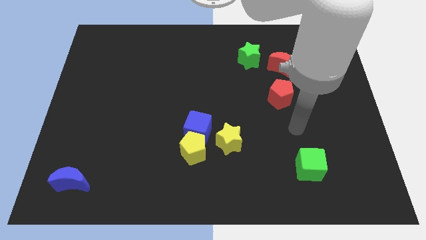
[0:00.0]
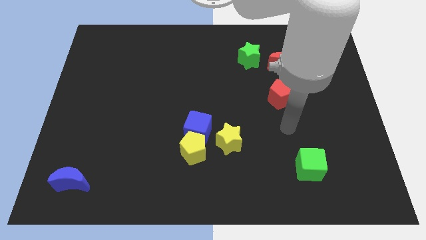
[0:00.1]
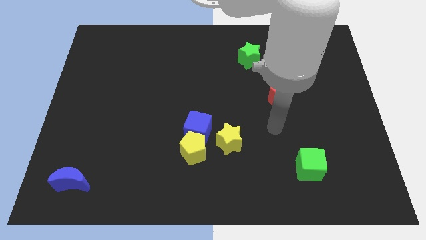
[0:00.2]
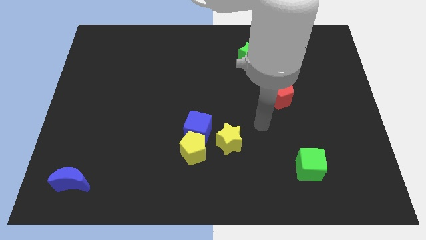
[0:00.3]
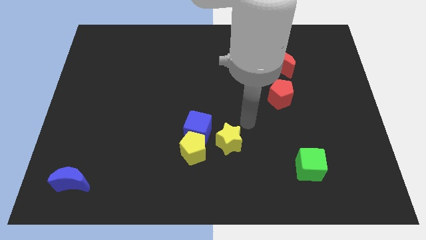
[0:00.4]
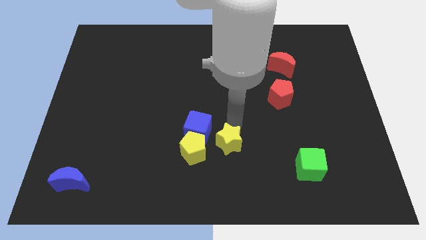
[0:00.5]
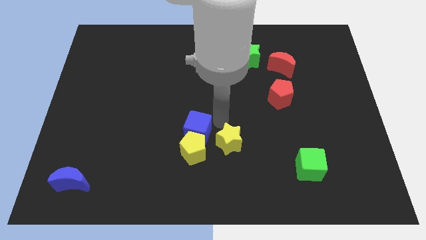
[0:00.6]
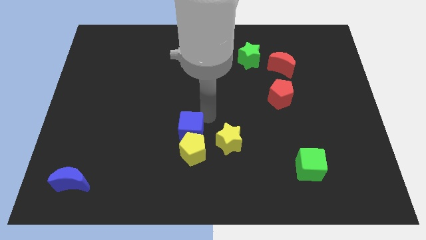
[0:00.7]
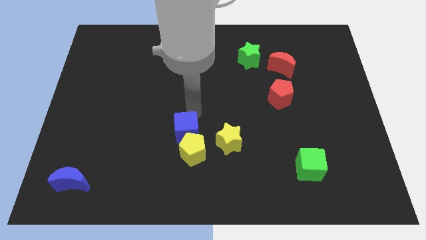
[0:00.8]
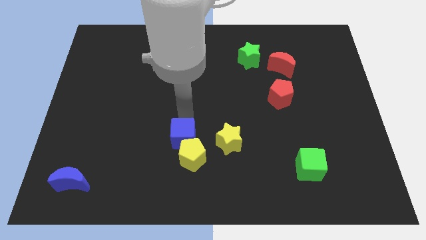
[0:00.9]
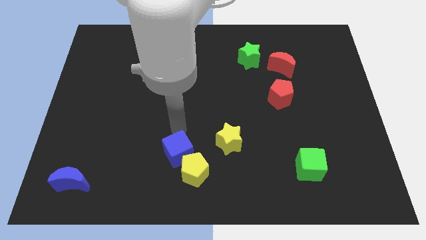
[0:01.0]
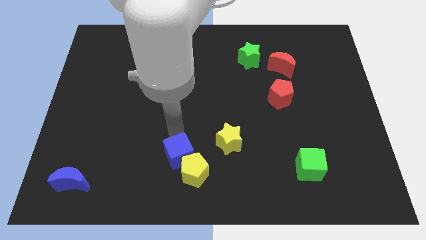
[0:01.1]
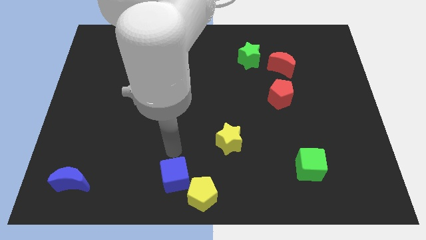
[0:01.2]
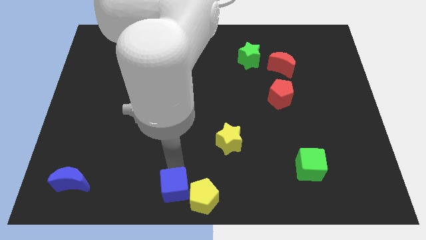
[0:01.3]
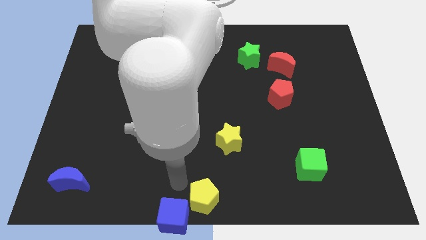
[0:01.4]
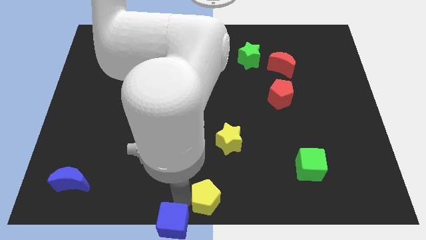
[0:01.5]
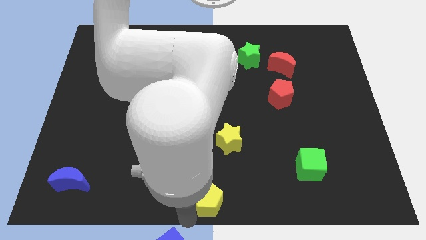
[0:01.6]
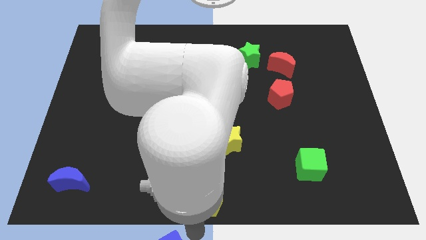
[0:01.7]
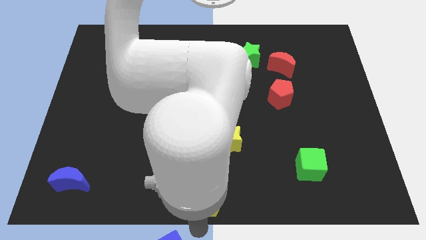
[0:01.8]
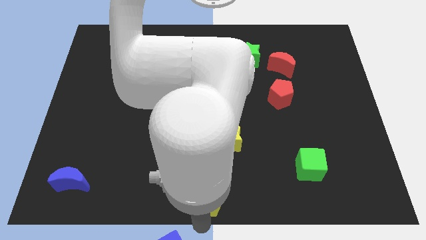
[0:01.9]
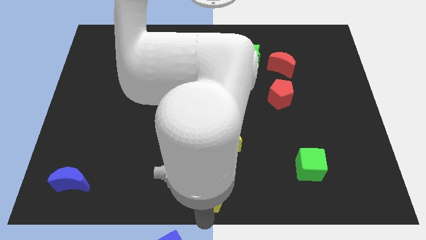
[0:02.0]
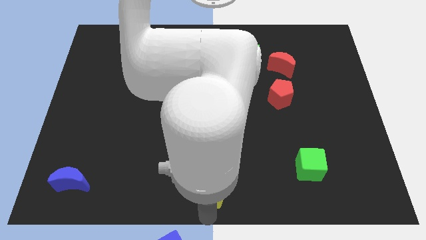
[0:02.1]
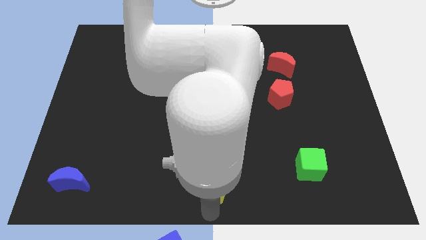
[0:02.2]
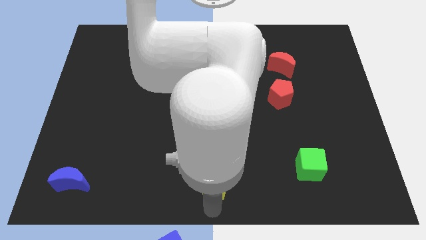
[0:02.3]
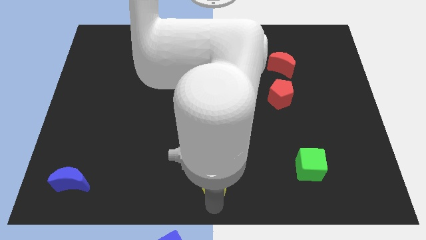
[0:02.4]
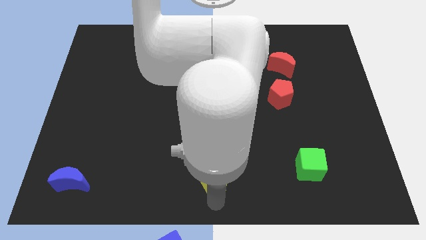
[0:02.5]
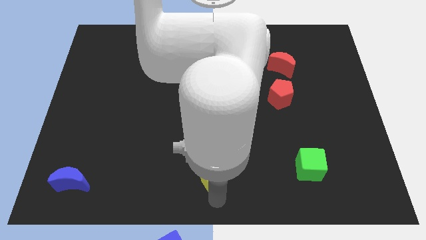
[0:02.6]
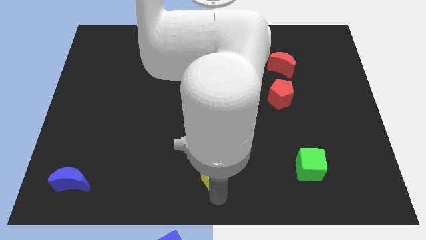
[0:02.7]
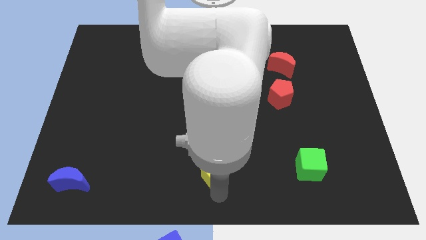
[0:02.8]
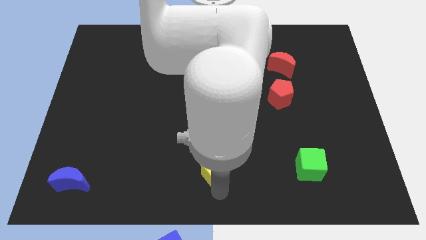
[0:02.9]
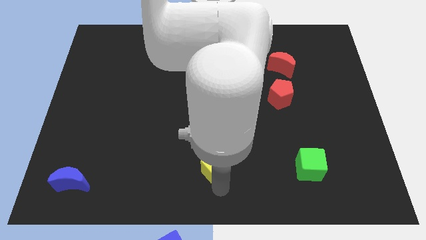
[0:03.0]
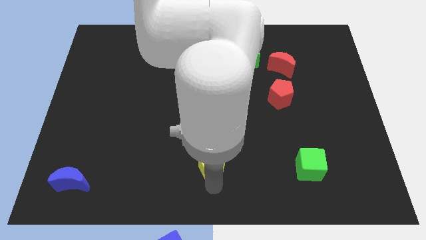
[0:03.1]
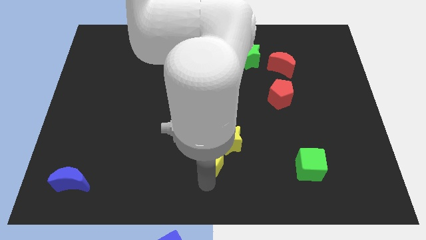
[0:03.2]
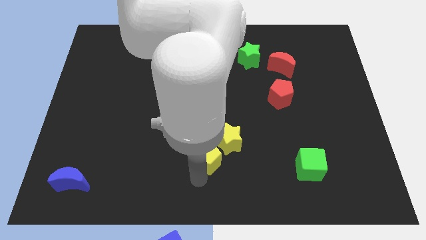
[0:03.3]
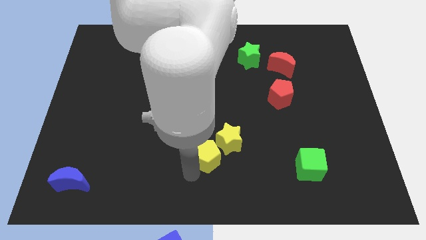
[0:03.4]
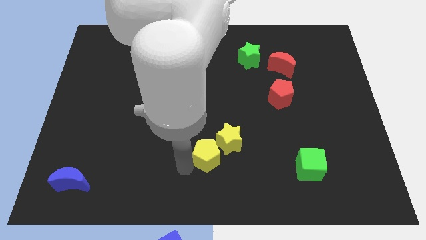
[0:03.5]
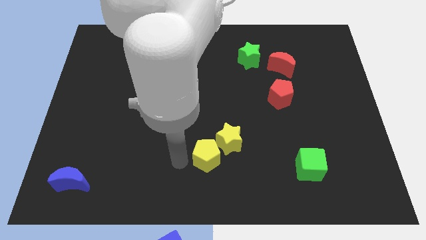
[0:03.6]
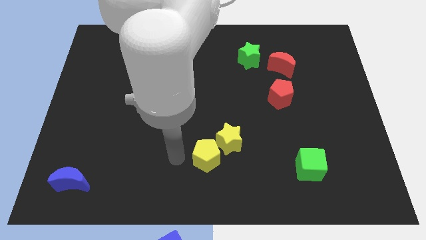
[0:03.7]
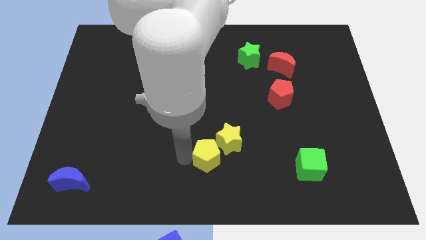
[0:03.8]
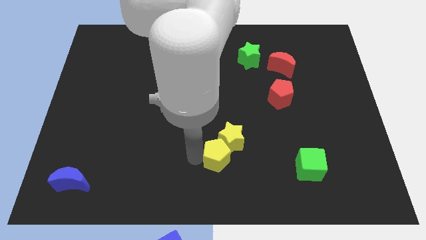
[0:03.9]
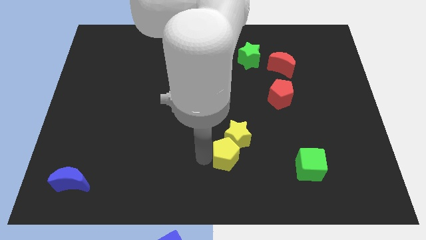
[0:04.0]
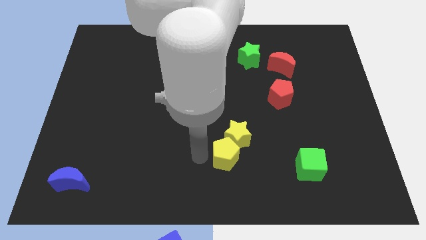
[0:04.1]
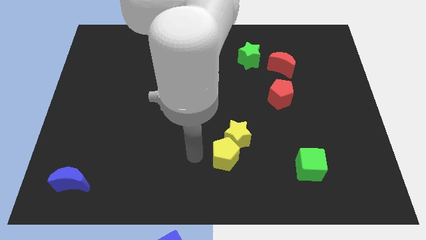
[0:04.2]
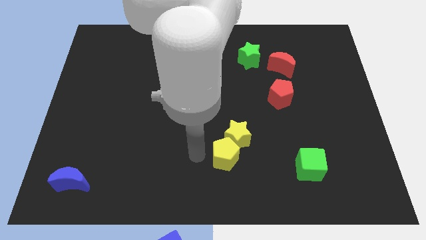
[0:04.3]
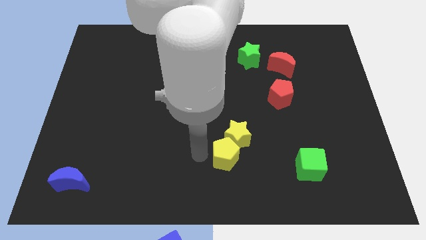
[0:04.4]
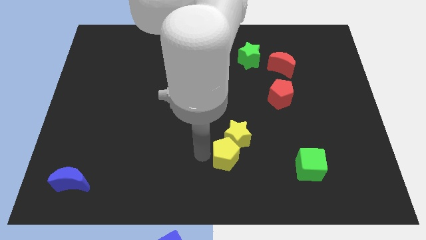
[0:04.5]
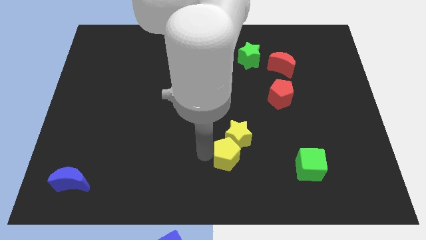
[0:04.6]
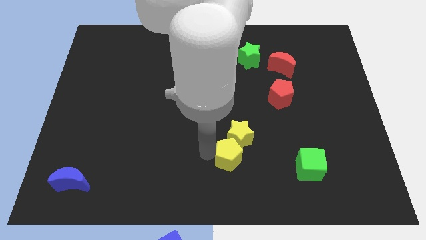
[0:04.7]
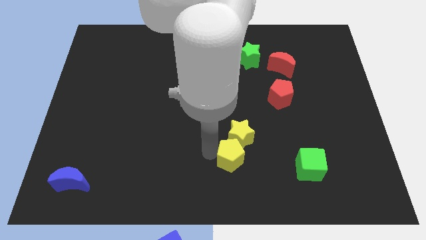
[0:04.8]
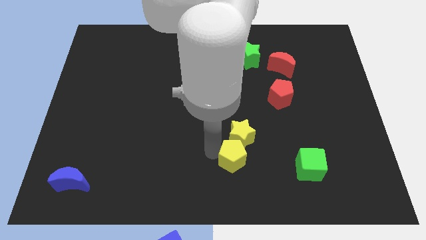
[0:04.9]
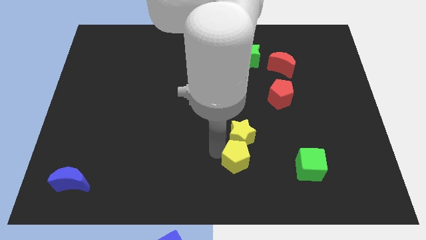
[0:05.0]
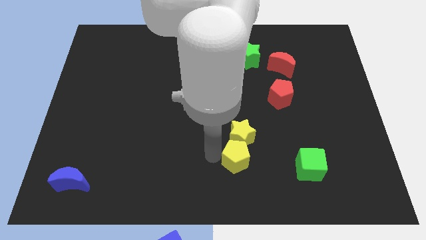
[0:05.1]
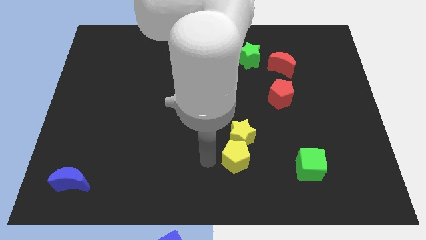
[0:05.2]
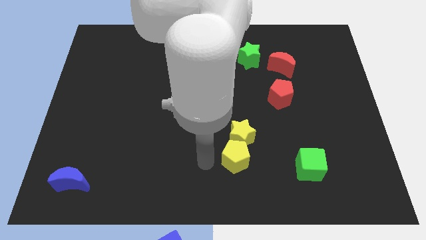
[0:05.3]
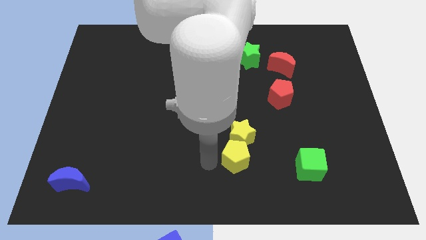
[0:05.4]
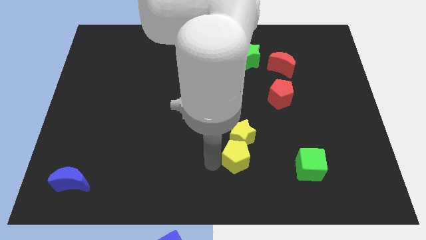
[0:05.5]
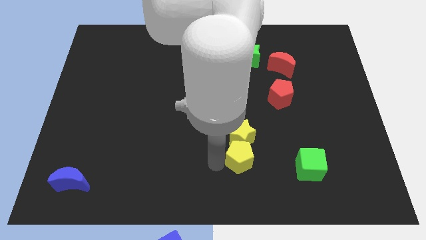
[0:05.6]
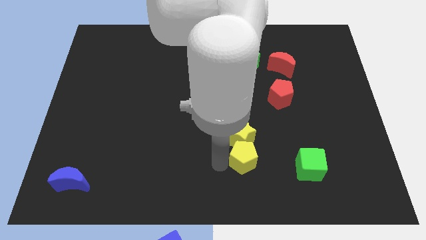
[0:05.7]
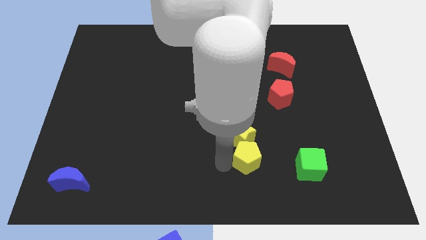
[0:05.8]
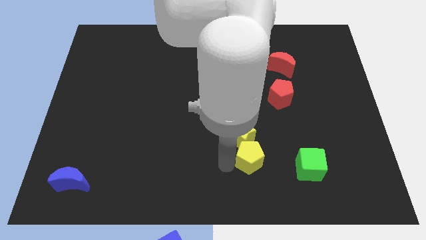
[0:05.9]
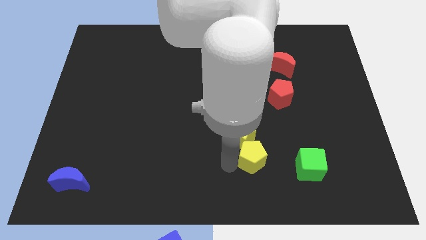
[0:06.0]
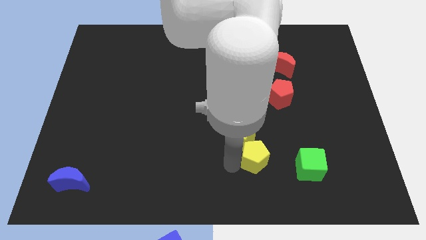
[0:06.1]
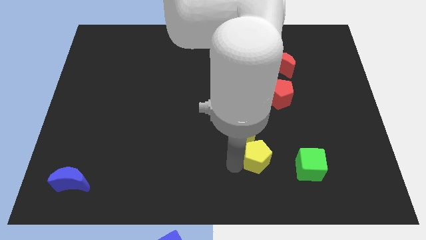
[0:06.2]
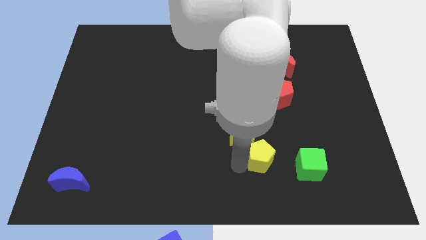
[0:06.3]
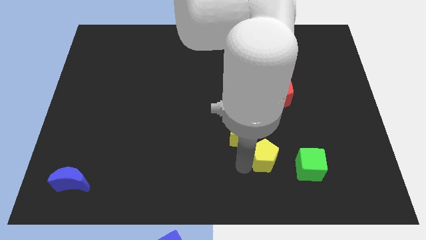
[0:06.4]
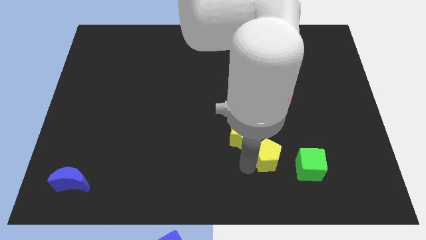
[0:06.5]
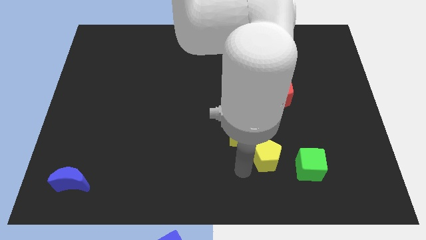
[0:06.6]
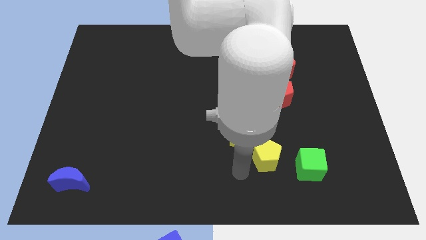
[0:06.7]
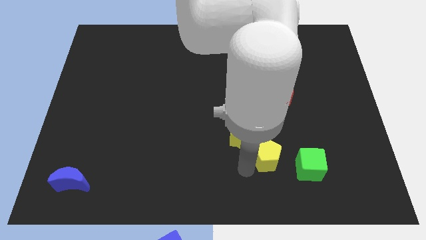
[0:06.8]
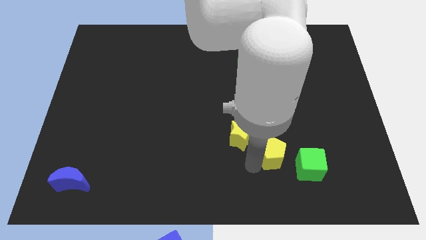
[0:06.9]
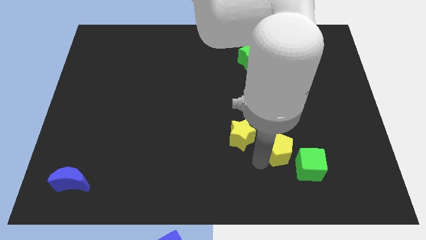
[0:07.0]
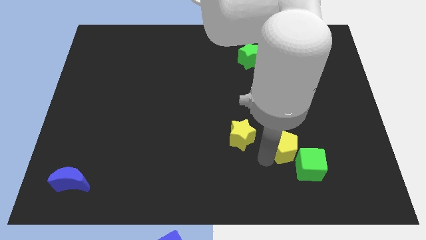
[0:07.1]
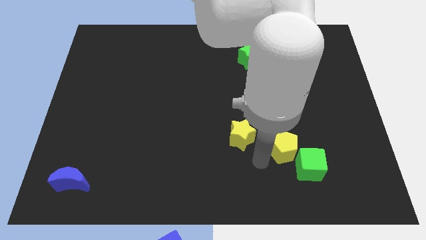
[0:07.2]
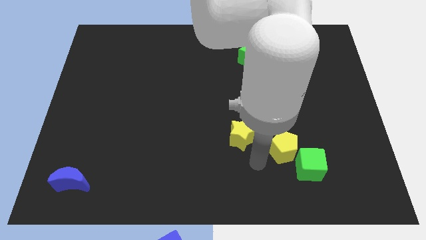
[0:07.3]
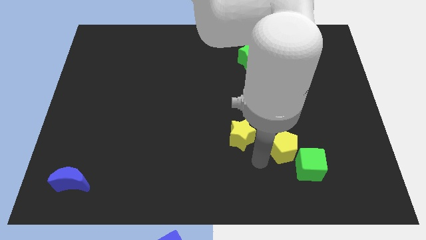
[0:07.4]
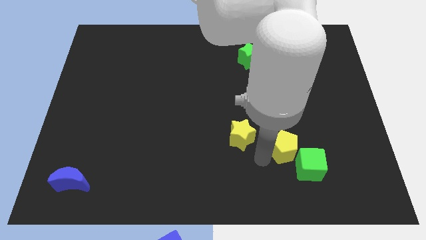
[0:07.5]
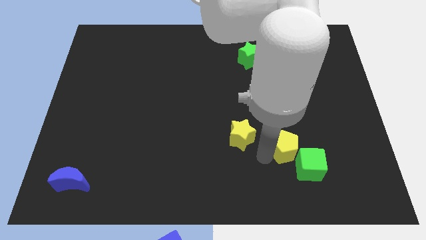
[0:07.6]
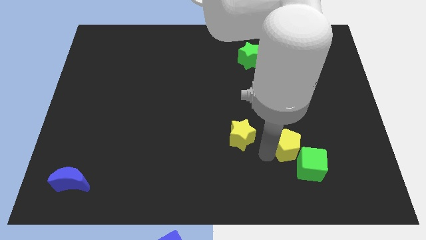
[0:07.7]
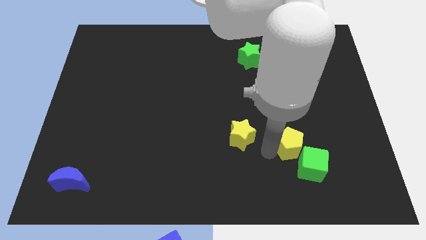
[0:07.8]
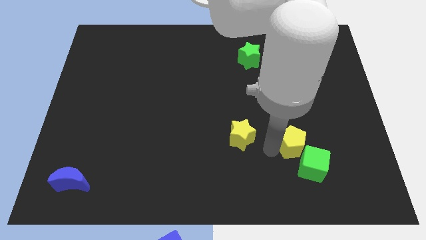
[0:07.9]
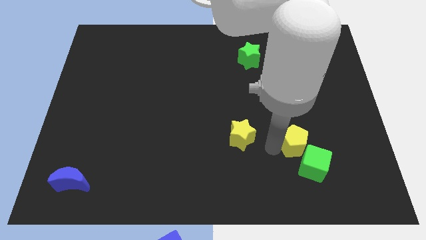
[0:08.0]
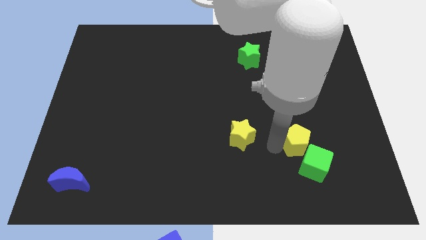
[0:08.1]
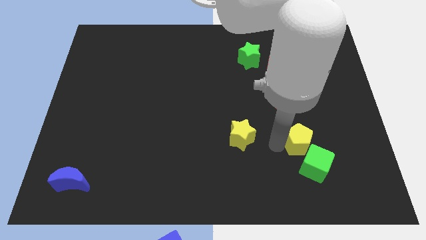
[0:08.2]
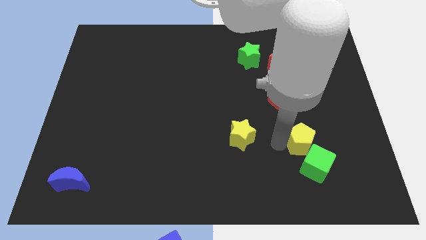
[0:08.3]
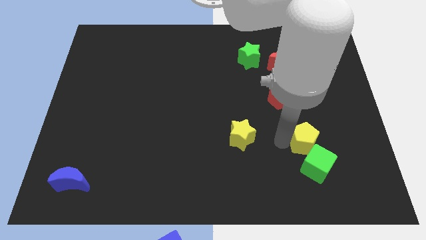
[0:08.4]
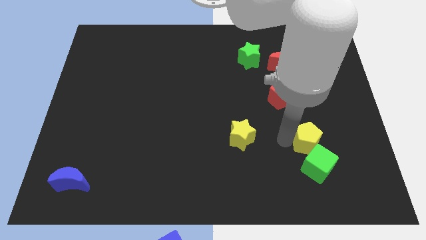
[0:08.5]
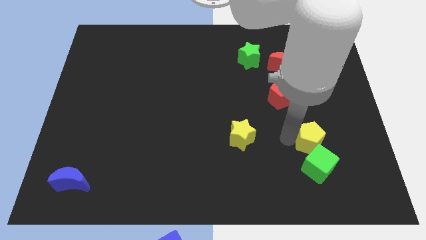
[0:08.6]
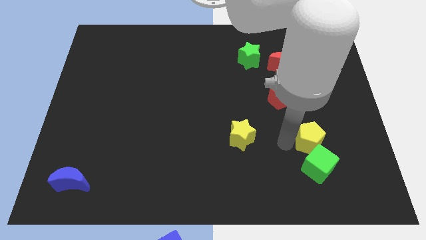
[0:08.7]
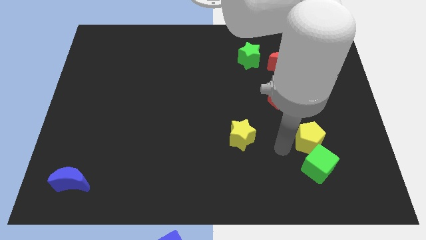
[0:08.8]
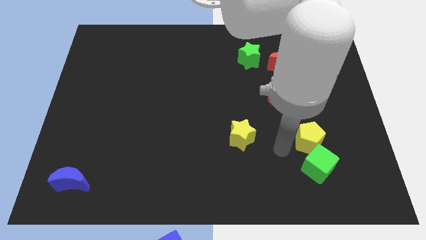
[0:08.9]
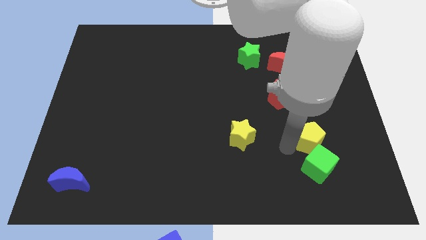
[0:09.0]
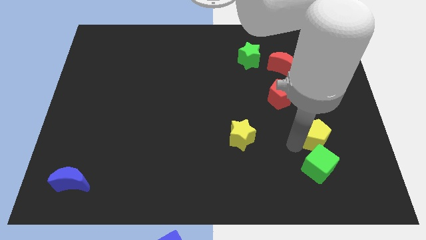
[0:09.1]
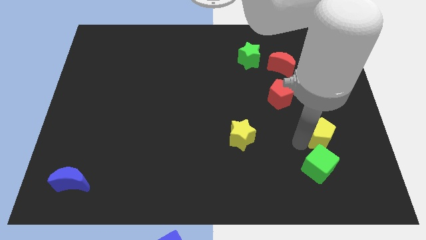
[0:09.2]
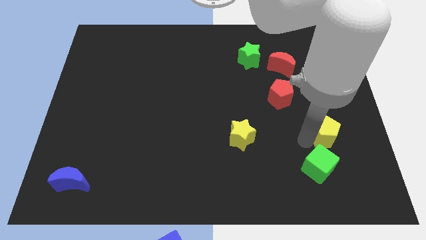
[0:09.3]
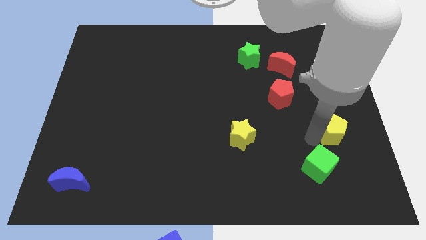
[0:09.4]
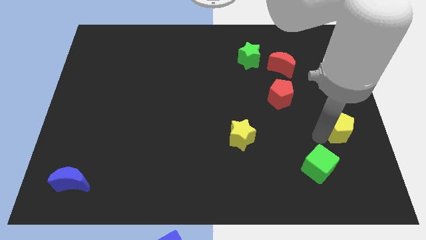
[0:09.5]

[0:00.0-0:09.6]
put the yellow pentagon to the right side
